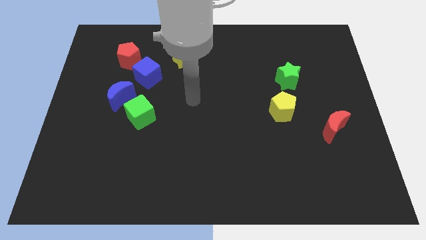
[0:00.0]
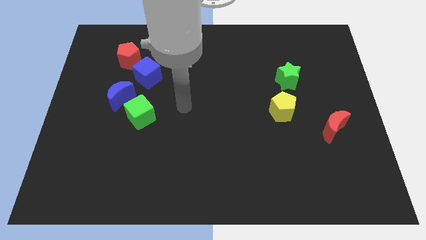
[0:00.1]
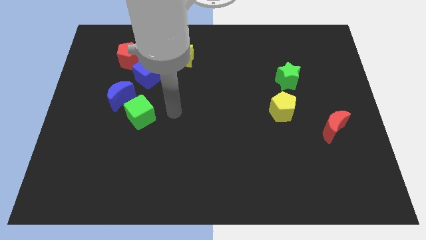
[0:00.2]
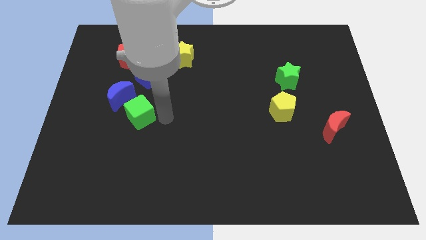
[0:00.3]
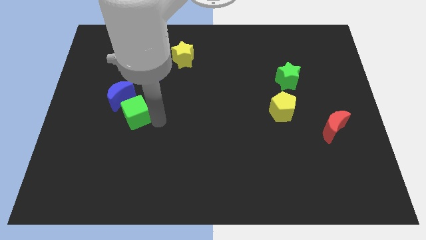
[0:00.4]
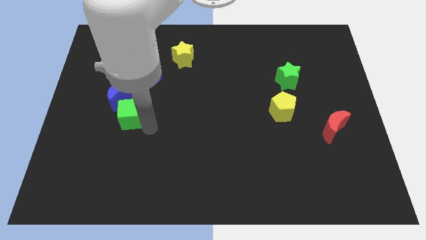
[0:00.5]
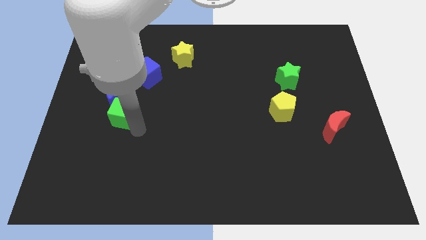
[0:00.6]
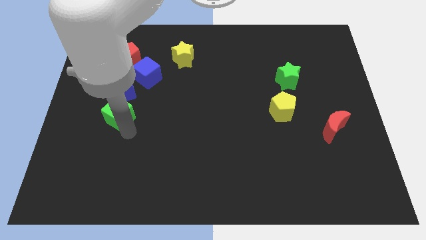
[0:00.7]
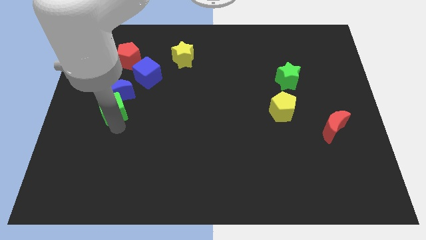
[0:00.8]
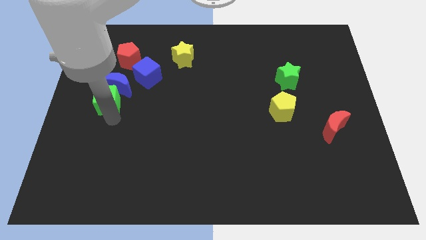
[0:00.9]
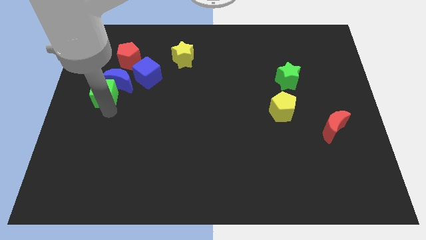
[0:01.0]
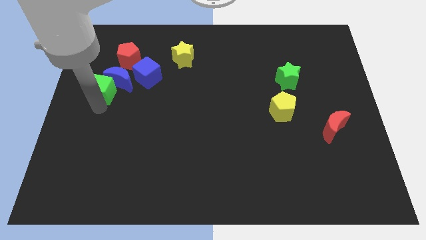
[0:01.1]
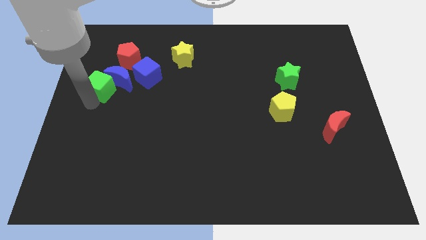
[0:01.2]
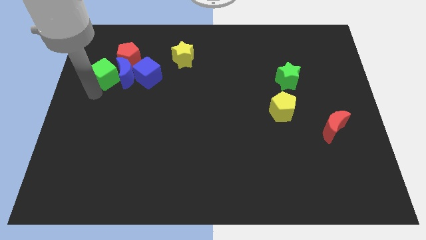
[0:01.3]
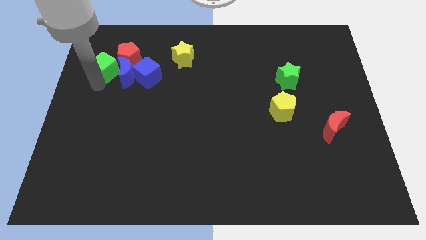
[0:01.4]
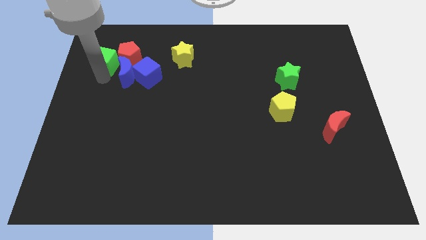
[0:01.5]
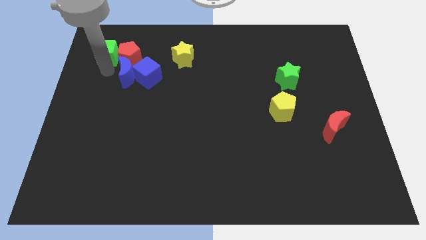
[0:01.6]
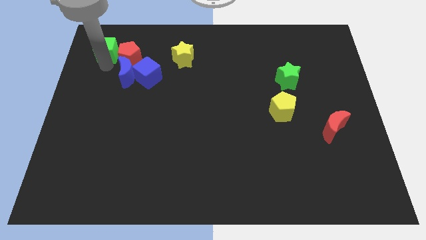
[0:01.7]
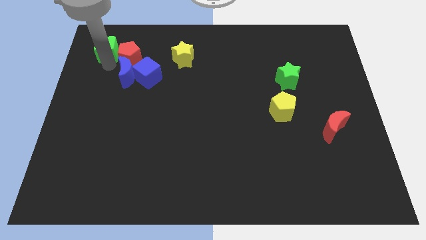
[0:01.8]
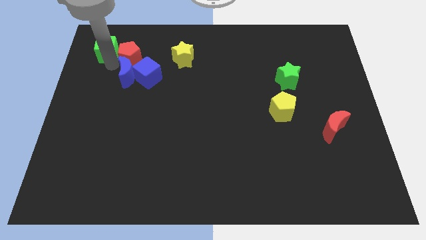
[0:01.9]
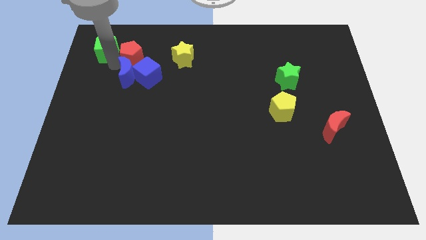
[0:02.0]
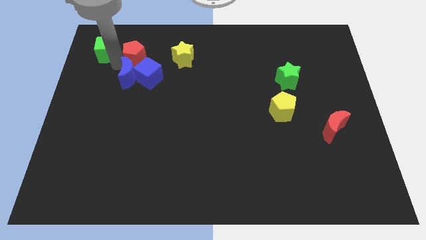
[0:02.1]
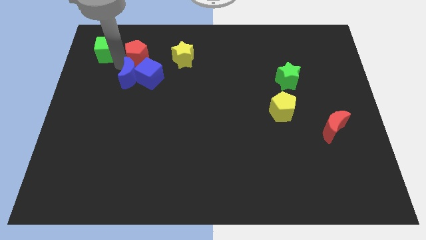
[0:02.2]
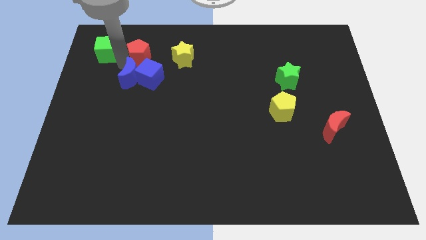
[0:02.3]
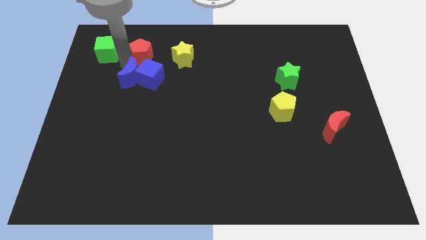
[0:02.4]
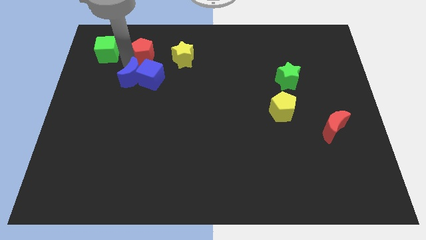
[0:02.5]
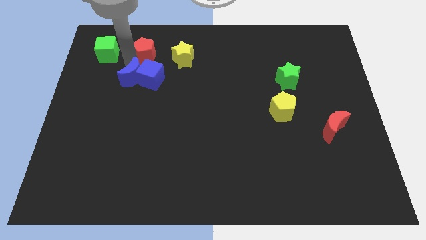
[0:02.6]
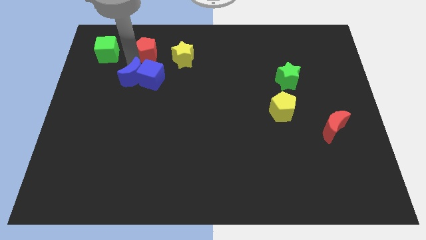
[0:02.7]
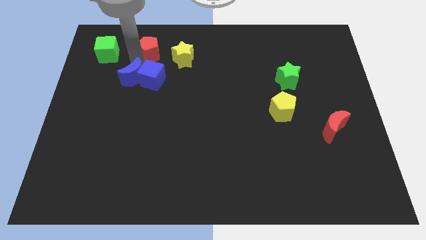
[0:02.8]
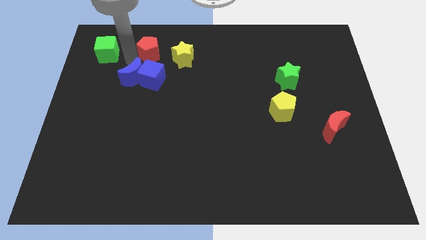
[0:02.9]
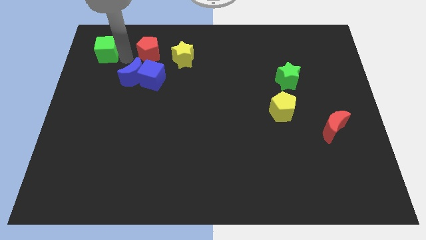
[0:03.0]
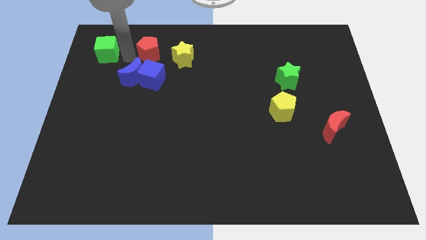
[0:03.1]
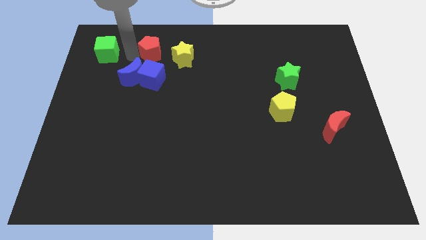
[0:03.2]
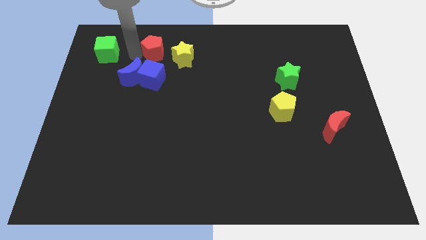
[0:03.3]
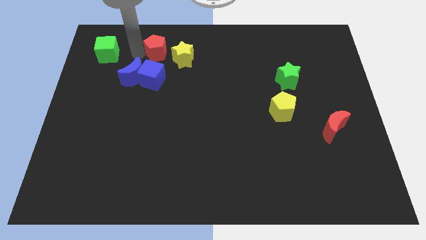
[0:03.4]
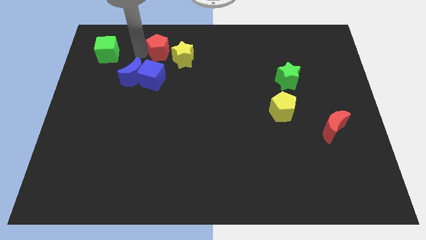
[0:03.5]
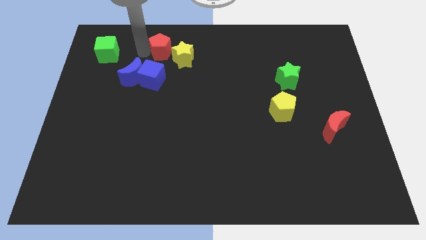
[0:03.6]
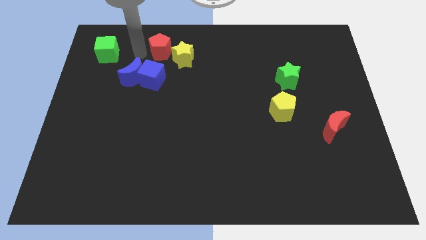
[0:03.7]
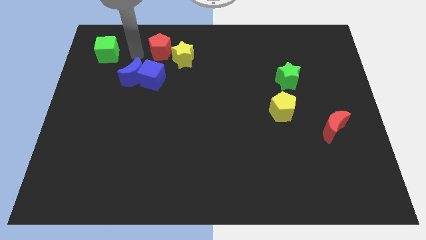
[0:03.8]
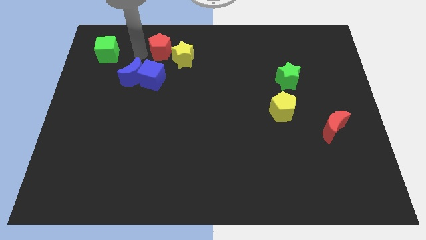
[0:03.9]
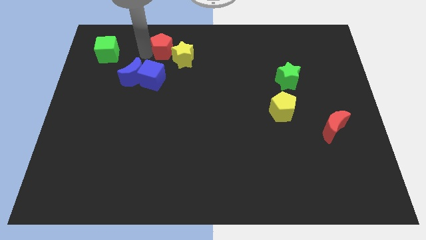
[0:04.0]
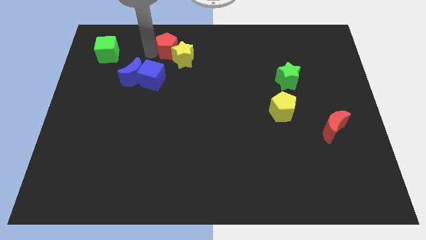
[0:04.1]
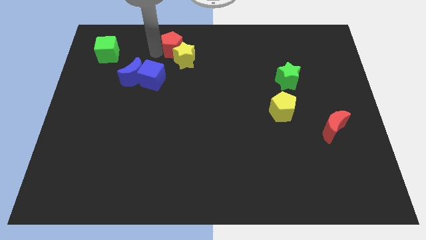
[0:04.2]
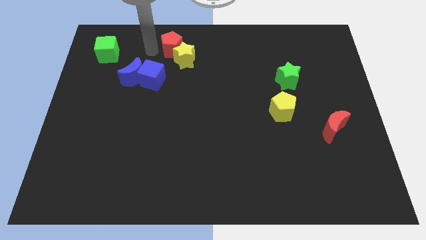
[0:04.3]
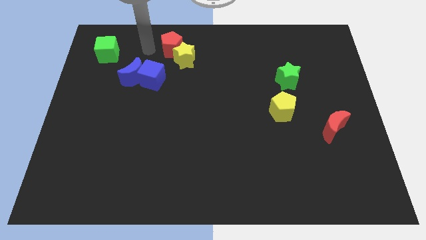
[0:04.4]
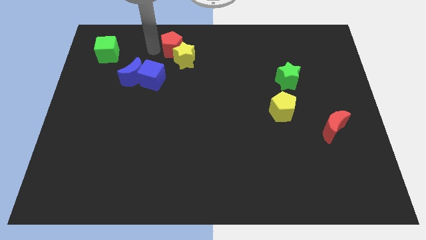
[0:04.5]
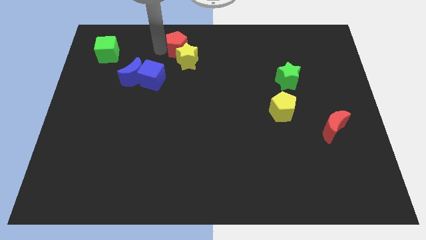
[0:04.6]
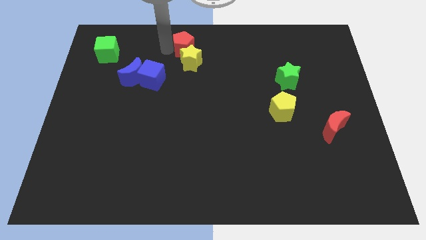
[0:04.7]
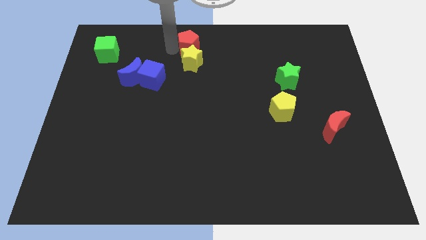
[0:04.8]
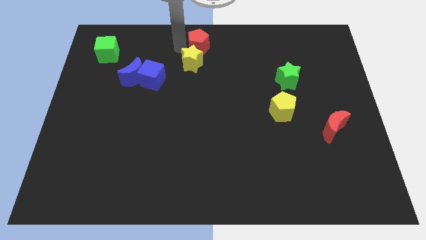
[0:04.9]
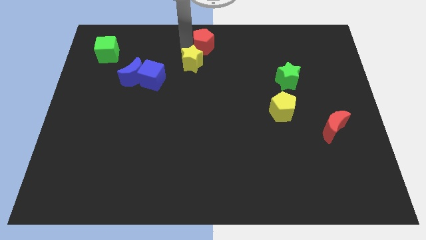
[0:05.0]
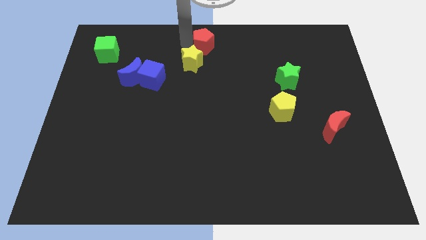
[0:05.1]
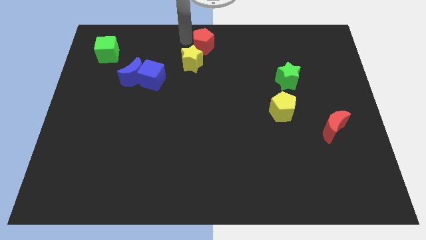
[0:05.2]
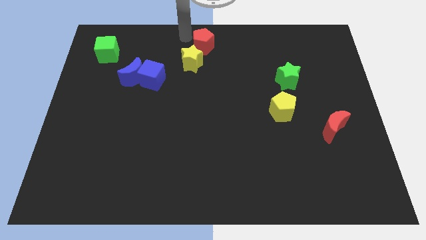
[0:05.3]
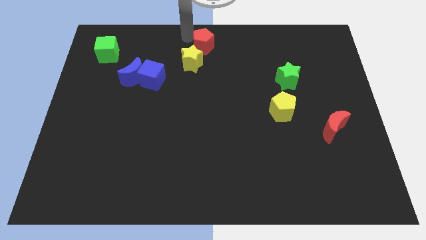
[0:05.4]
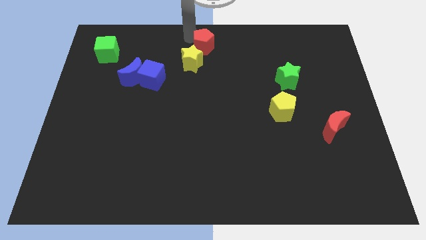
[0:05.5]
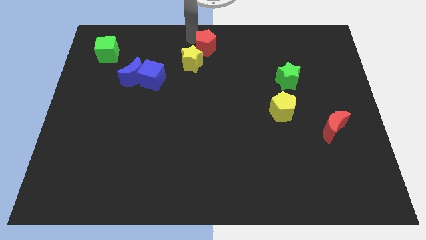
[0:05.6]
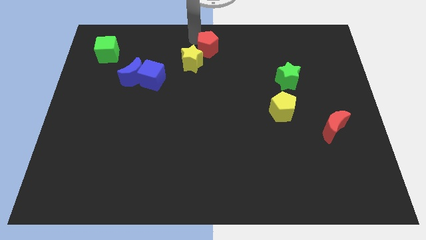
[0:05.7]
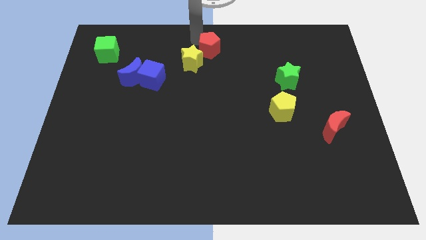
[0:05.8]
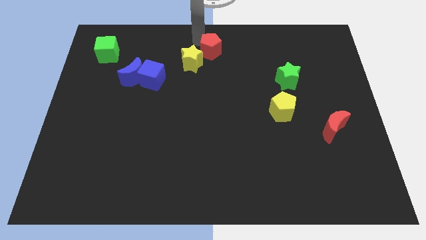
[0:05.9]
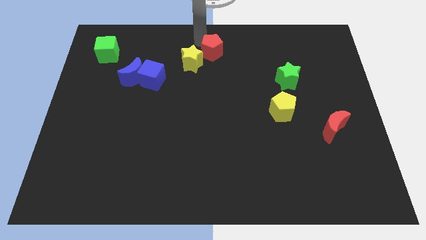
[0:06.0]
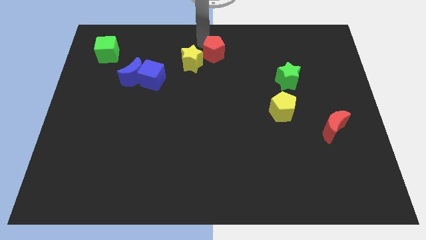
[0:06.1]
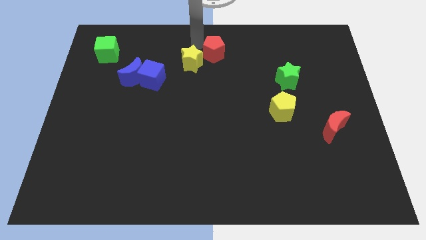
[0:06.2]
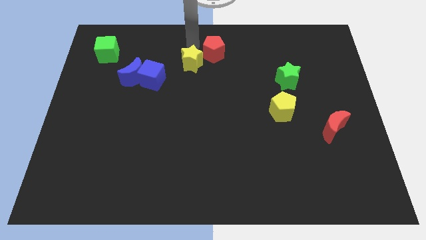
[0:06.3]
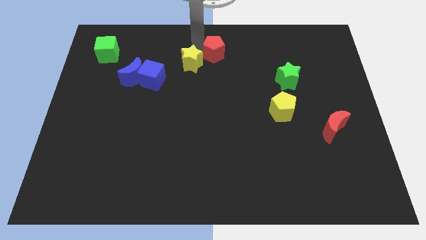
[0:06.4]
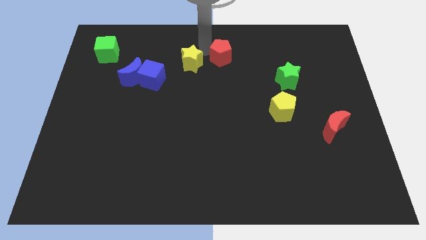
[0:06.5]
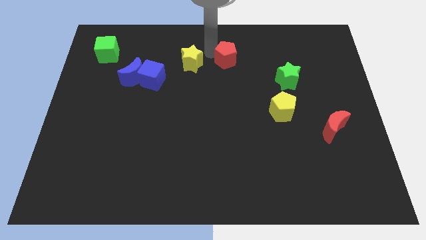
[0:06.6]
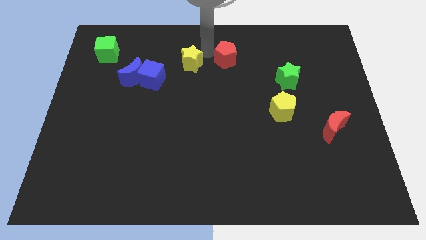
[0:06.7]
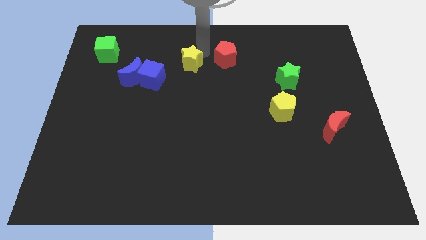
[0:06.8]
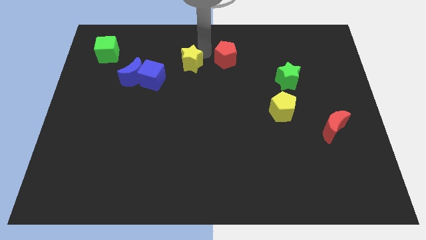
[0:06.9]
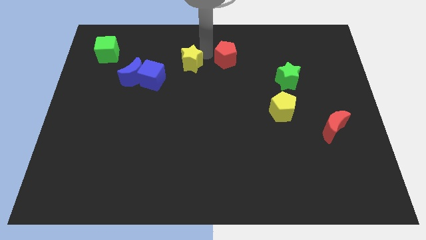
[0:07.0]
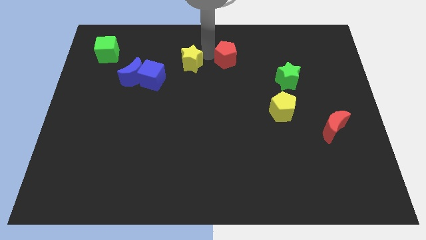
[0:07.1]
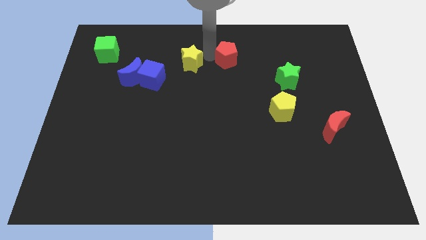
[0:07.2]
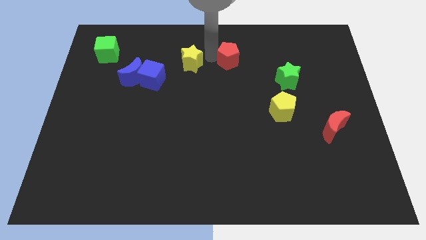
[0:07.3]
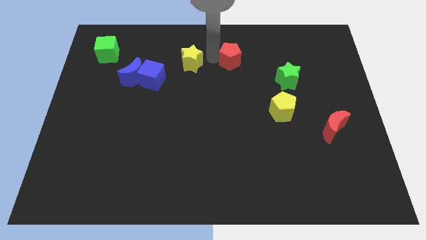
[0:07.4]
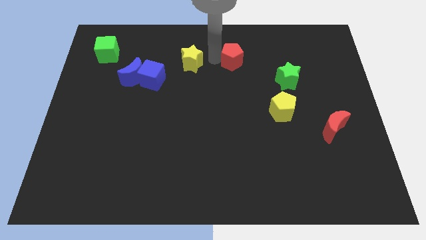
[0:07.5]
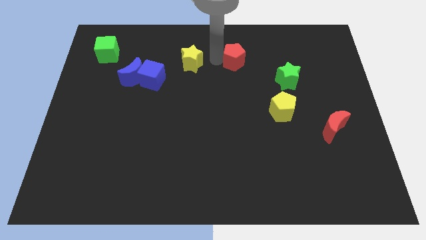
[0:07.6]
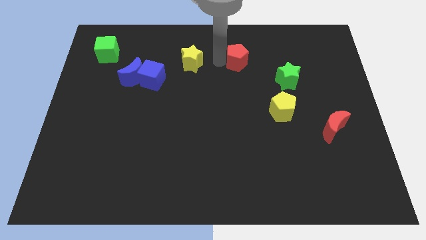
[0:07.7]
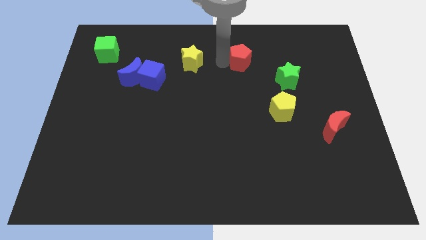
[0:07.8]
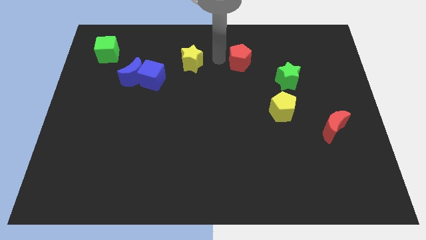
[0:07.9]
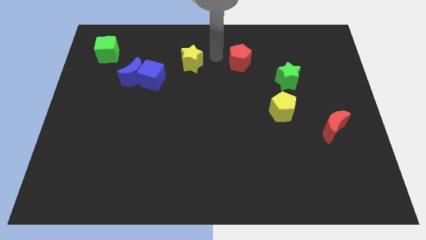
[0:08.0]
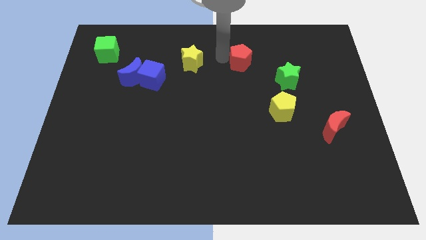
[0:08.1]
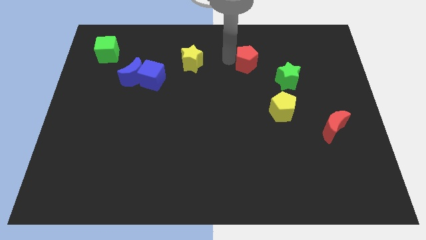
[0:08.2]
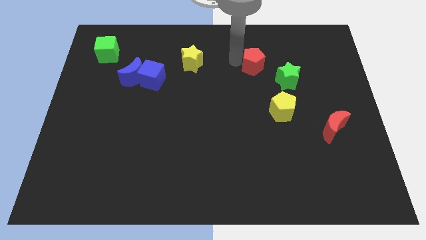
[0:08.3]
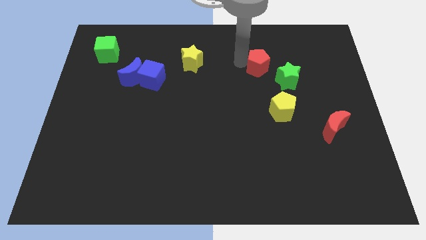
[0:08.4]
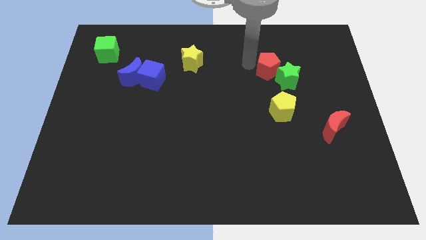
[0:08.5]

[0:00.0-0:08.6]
slide the red pentagon next to the green star
